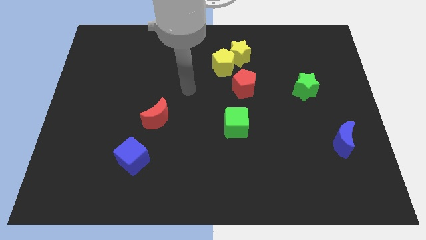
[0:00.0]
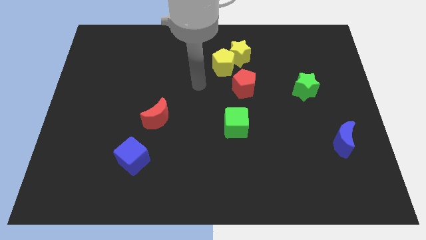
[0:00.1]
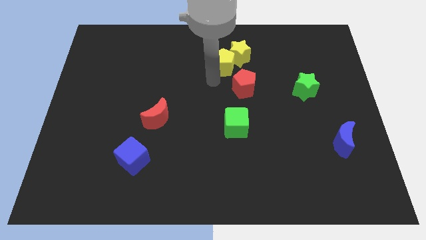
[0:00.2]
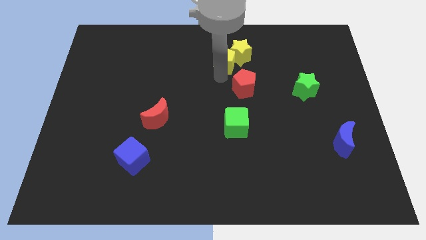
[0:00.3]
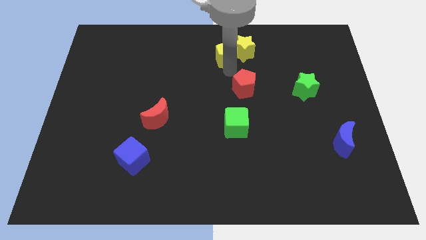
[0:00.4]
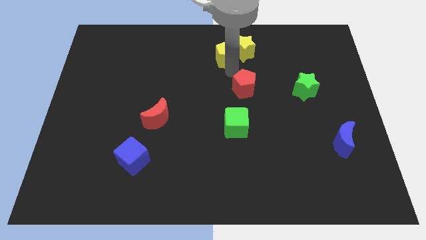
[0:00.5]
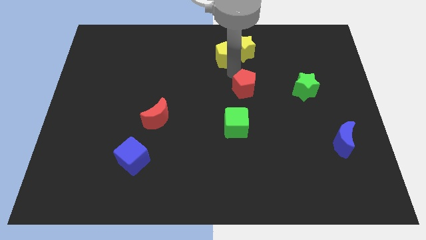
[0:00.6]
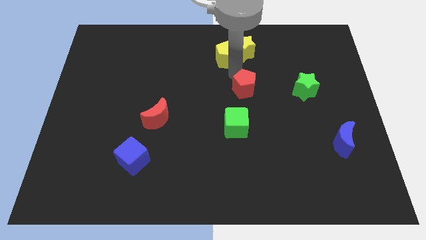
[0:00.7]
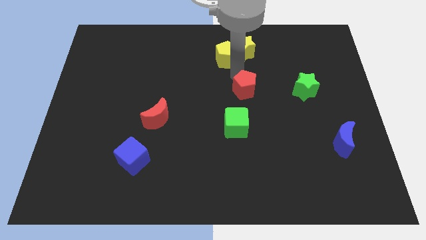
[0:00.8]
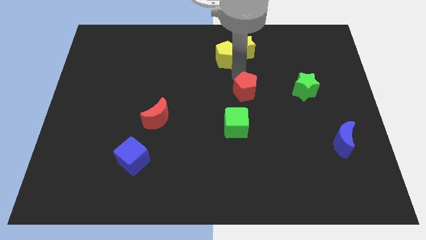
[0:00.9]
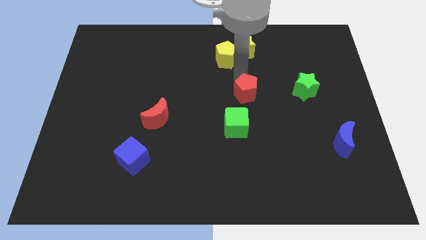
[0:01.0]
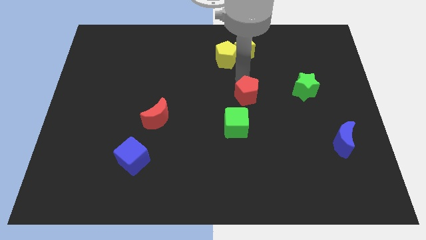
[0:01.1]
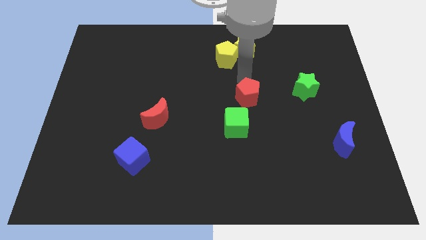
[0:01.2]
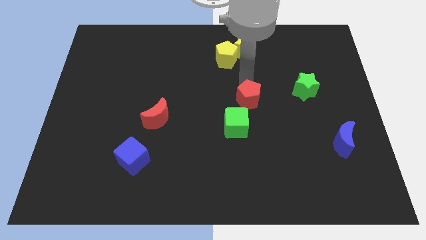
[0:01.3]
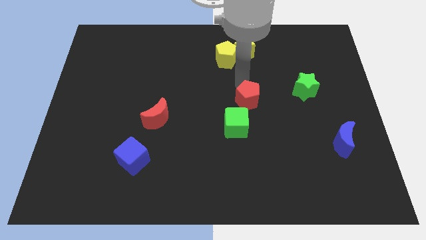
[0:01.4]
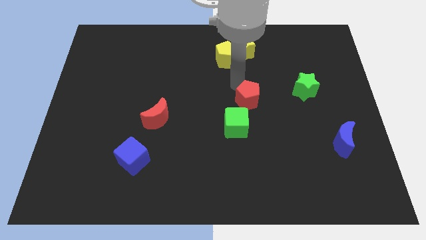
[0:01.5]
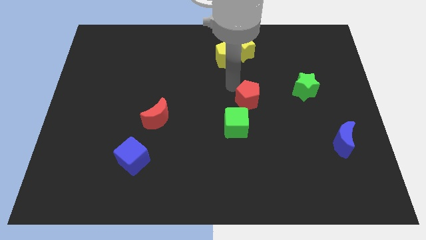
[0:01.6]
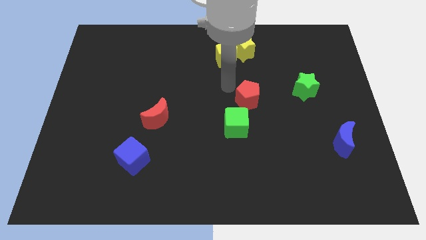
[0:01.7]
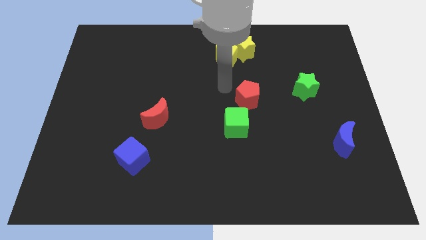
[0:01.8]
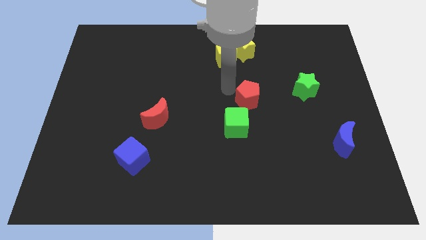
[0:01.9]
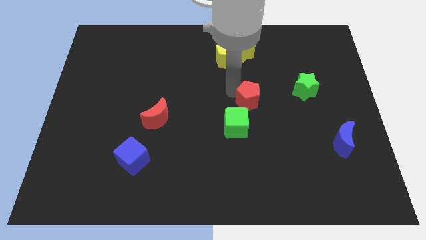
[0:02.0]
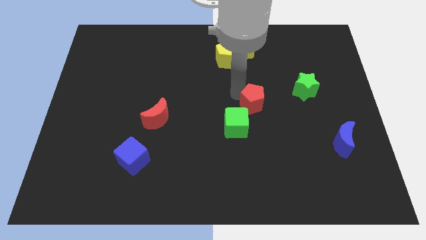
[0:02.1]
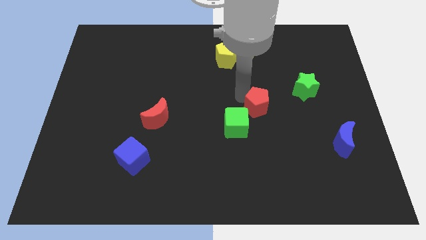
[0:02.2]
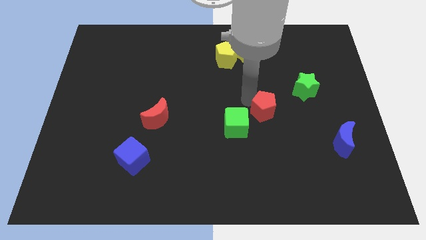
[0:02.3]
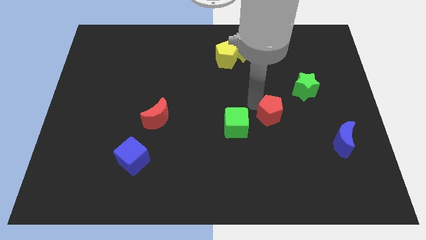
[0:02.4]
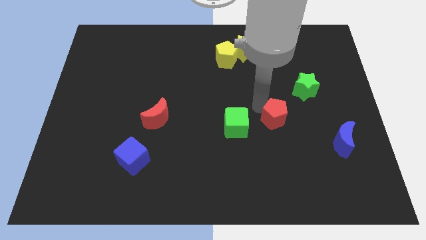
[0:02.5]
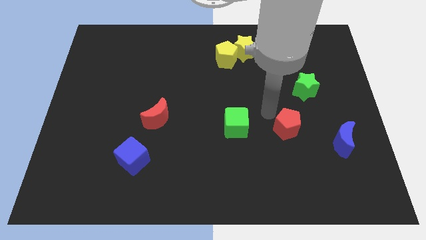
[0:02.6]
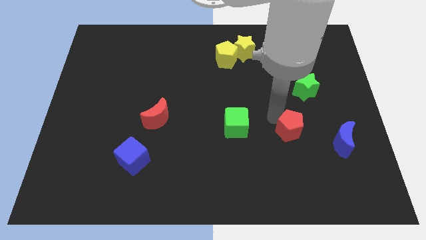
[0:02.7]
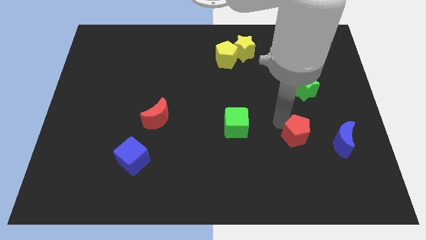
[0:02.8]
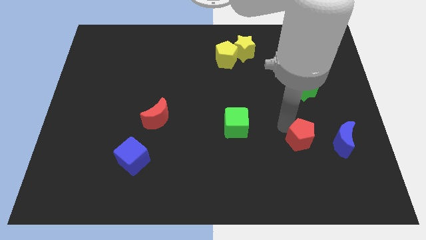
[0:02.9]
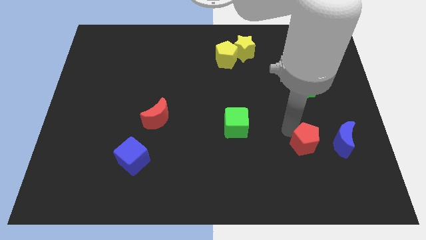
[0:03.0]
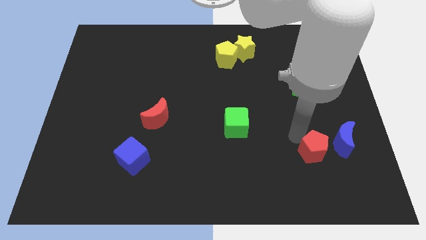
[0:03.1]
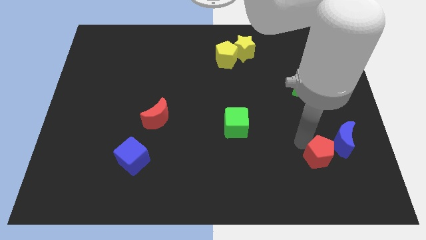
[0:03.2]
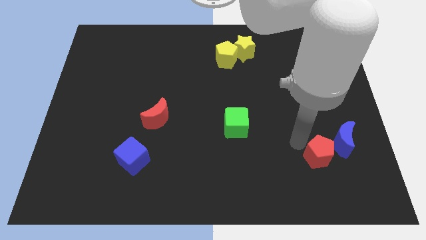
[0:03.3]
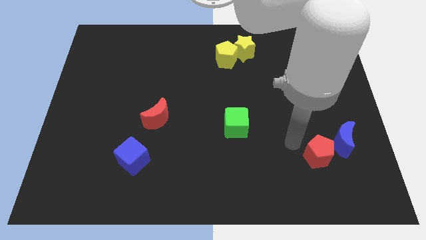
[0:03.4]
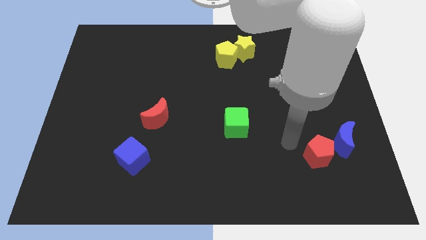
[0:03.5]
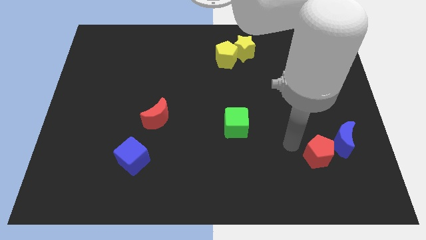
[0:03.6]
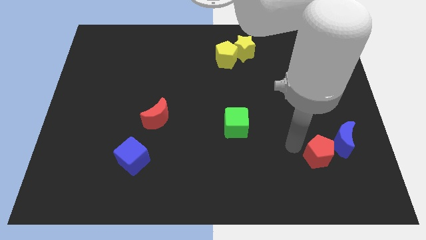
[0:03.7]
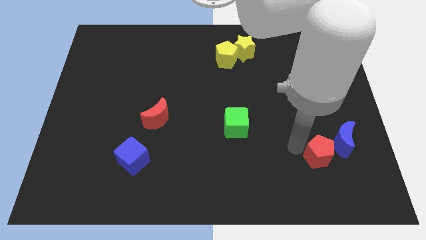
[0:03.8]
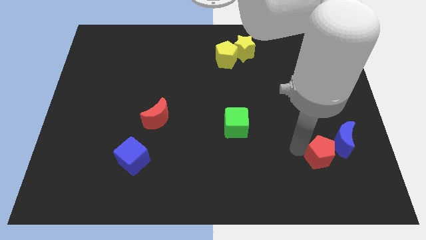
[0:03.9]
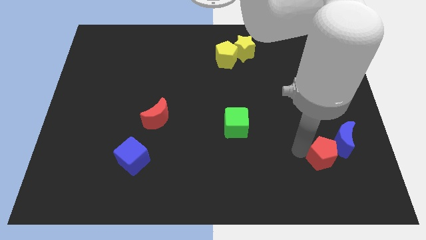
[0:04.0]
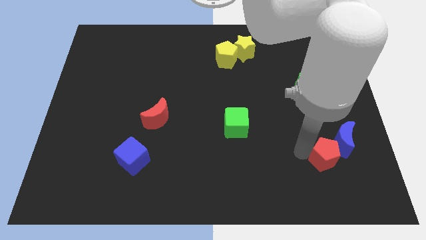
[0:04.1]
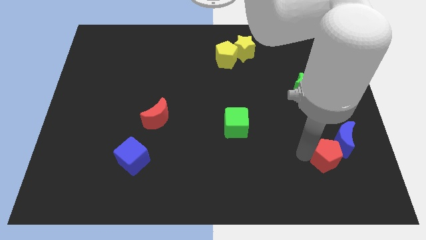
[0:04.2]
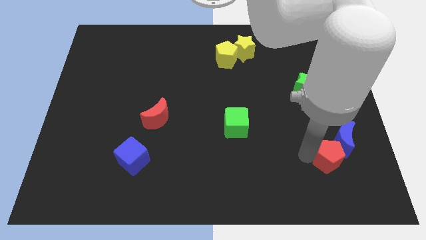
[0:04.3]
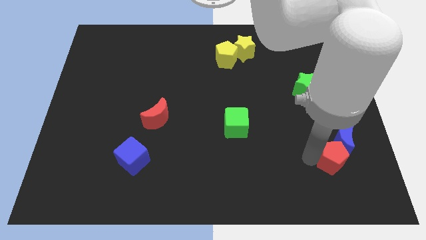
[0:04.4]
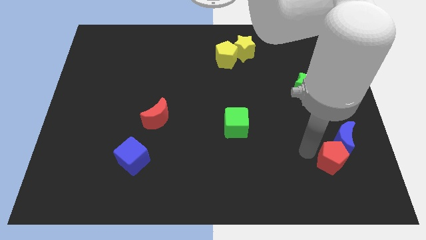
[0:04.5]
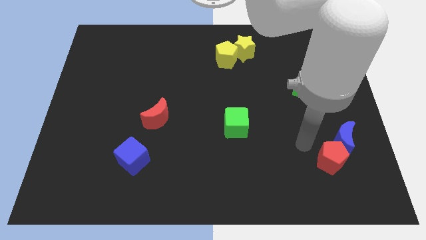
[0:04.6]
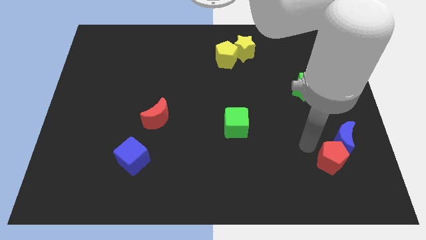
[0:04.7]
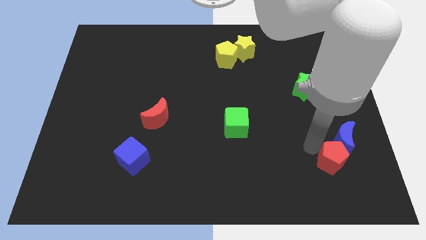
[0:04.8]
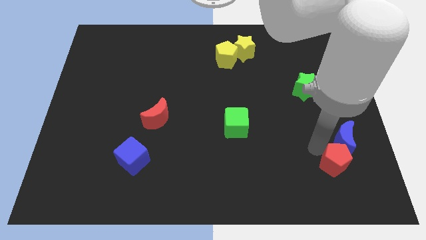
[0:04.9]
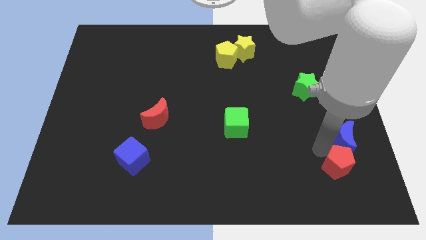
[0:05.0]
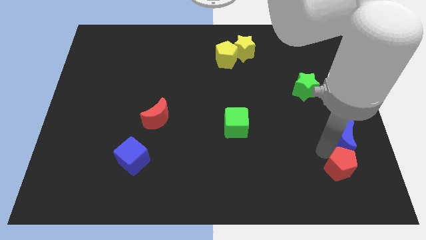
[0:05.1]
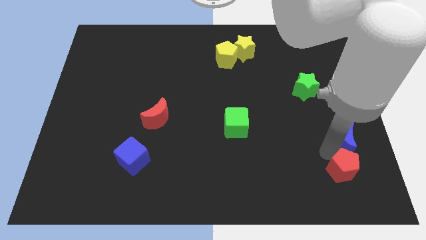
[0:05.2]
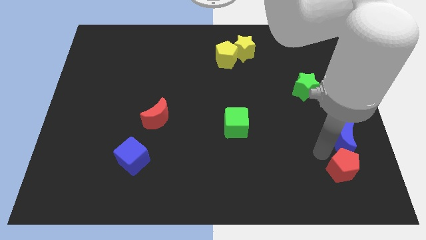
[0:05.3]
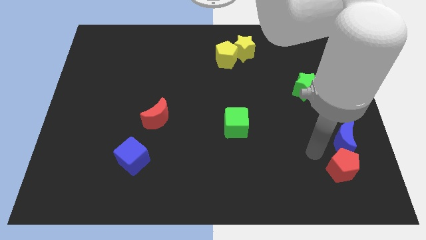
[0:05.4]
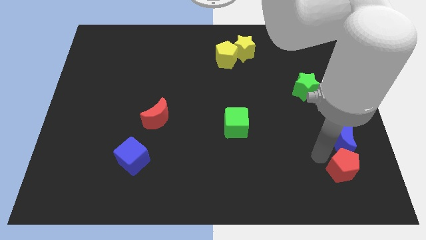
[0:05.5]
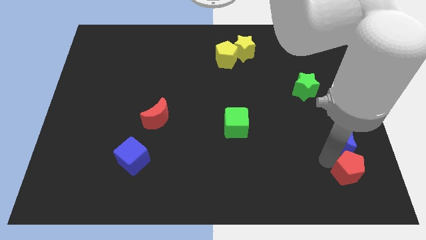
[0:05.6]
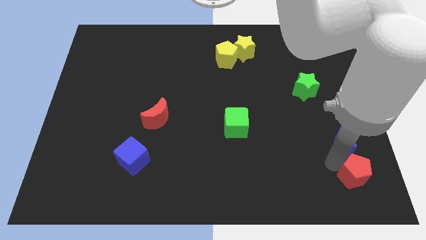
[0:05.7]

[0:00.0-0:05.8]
push the red pentagon to the bottom right
